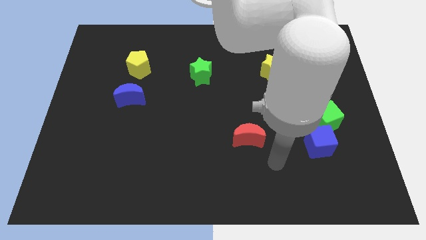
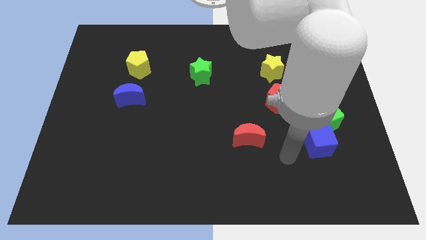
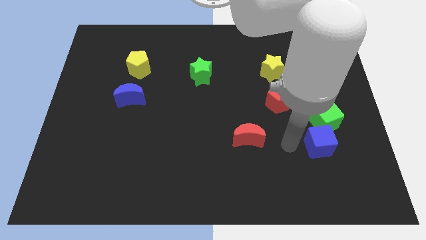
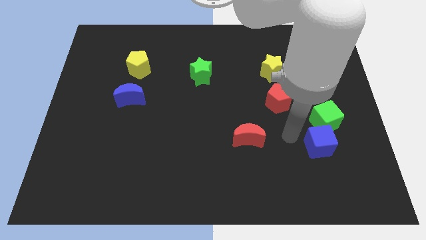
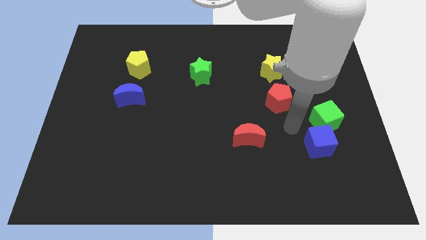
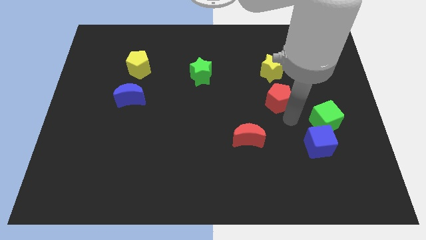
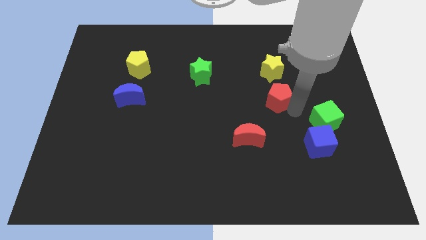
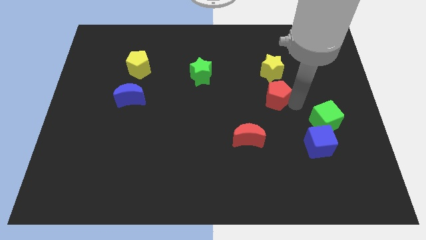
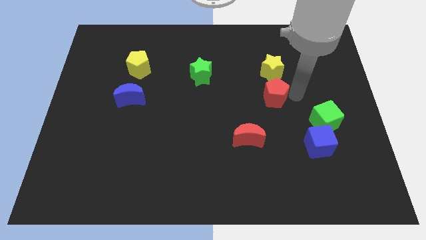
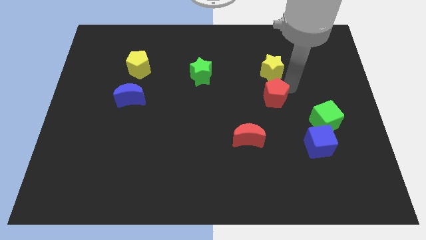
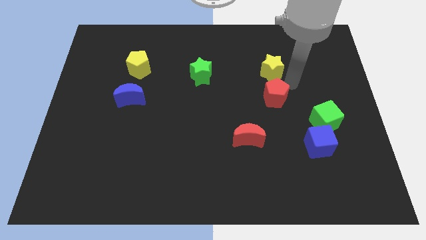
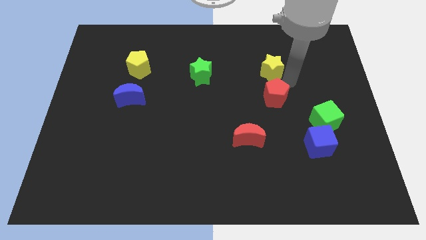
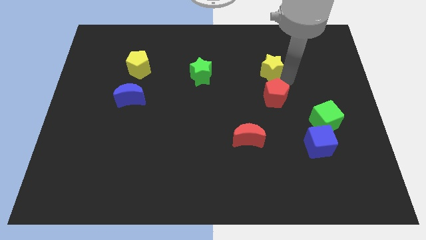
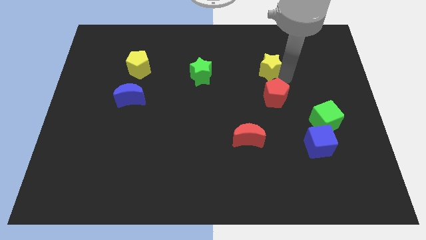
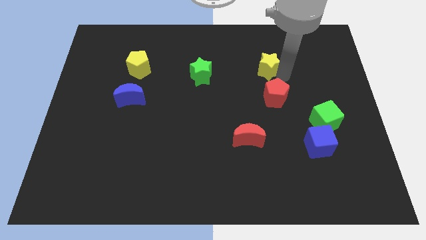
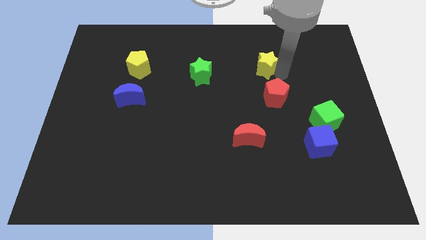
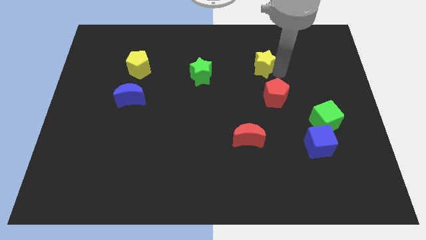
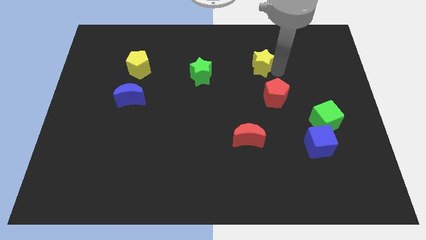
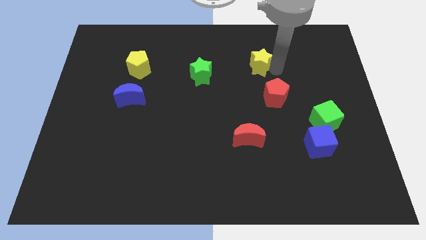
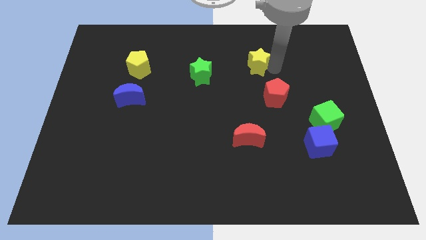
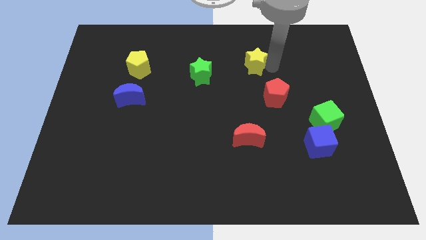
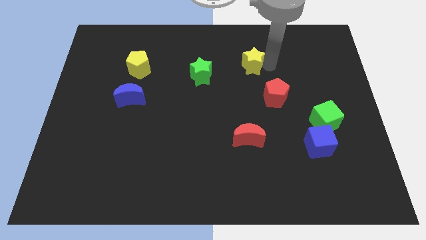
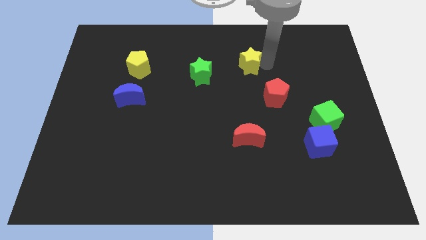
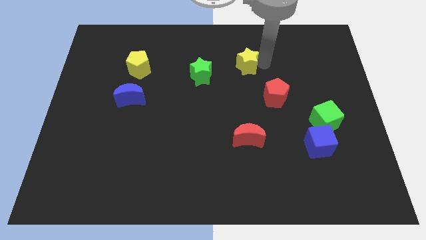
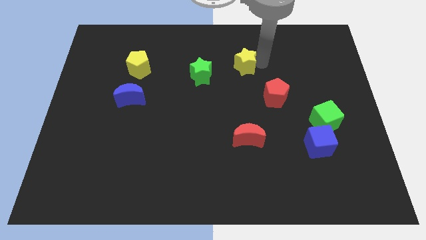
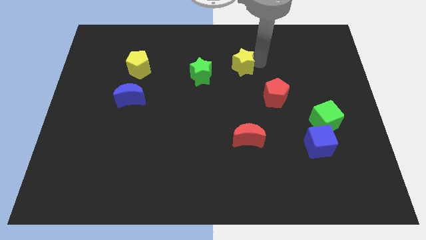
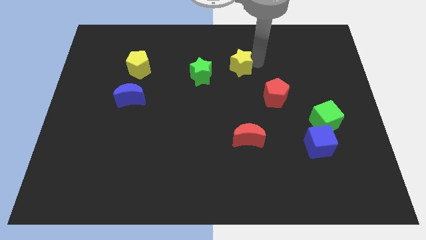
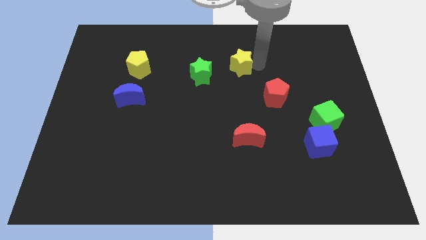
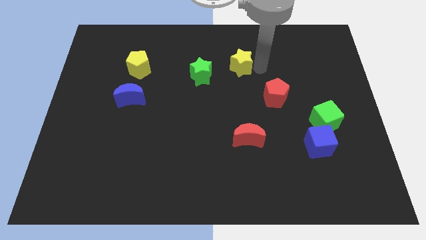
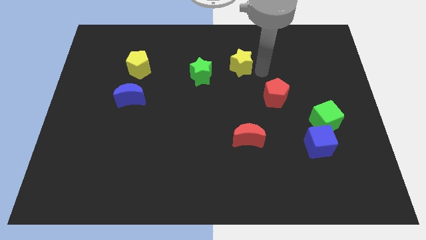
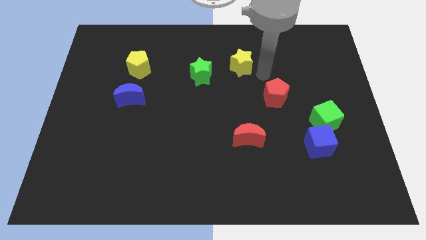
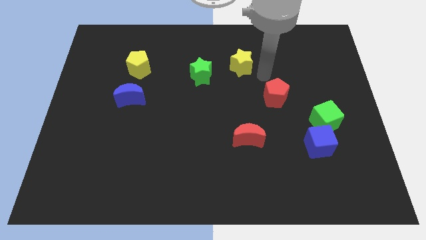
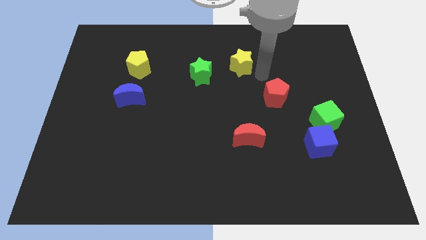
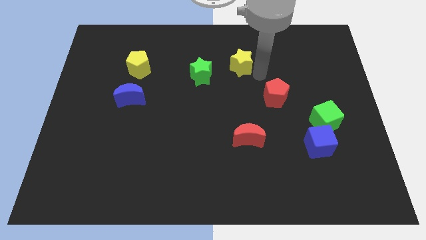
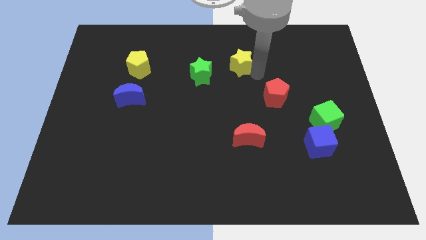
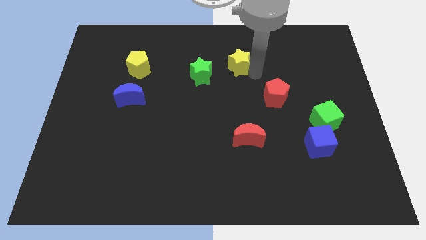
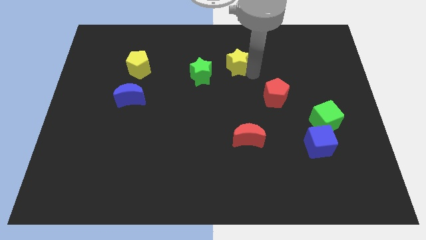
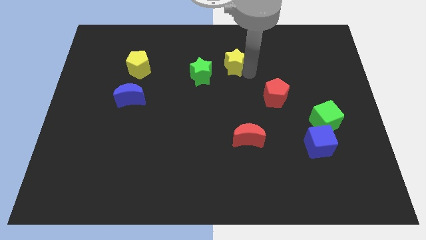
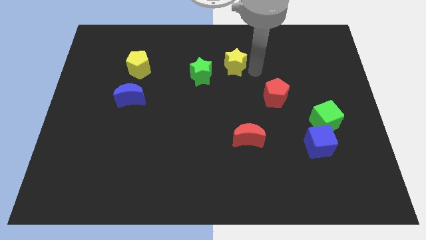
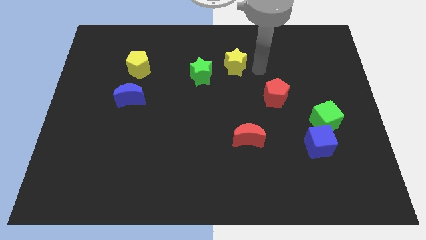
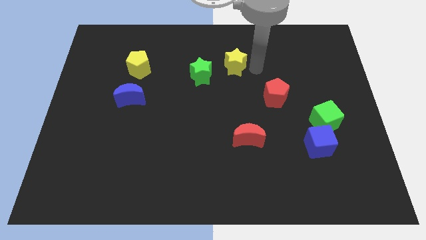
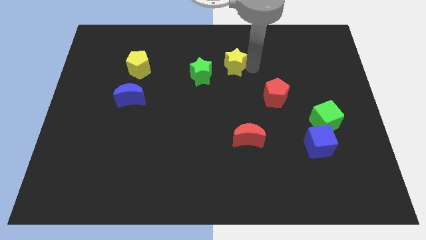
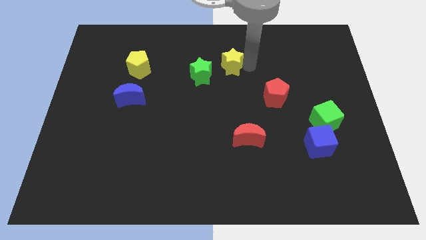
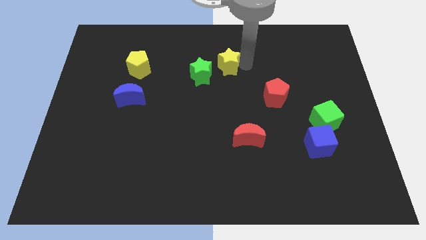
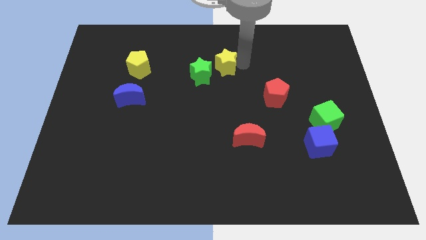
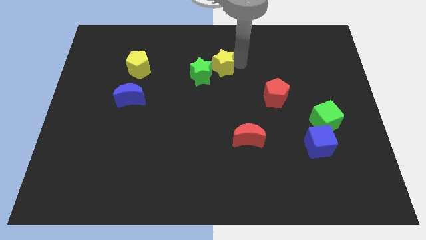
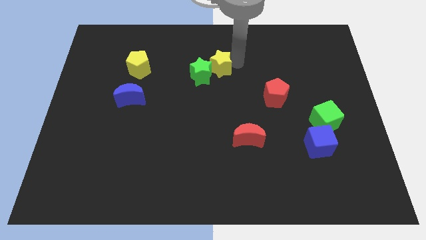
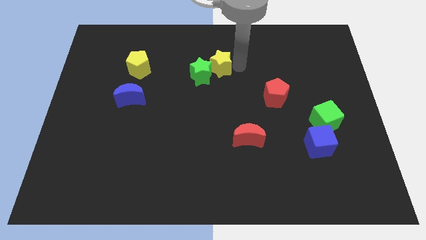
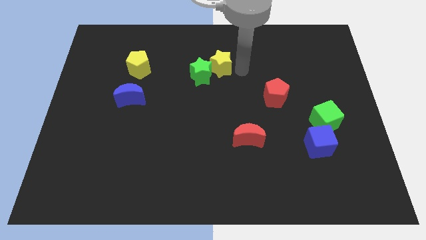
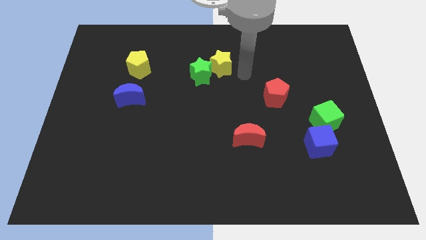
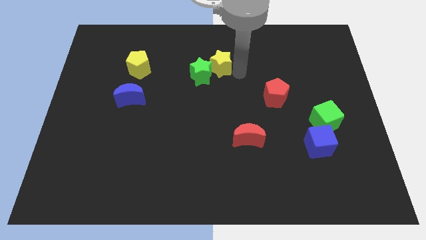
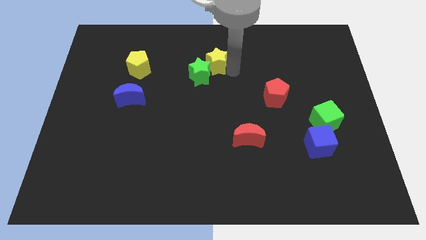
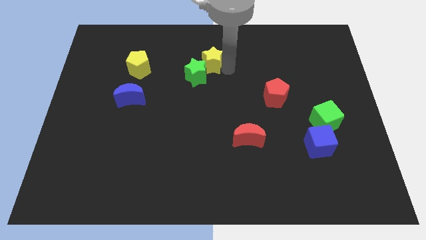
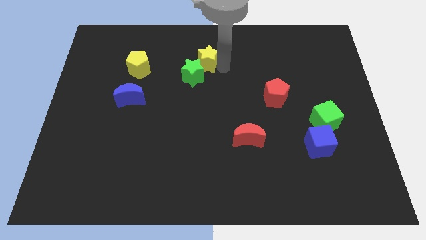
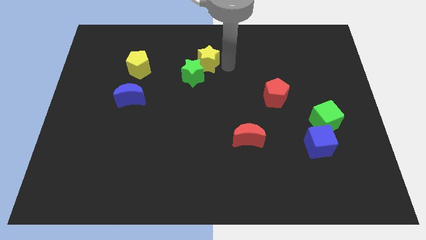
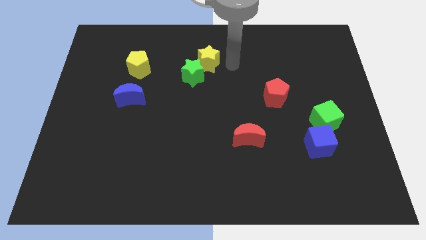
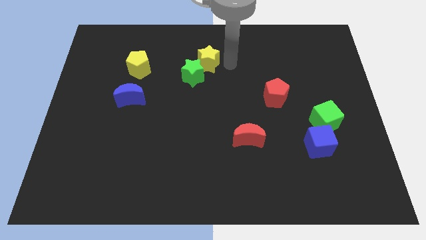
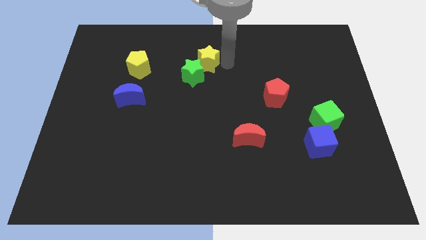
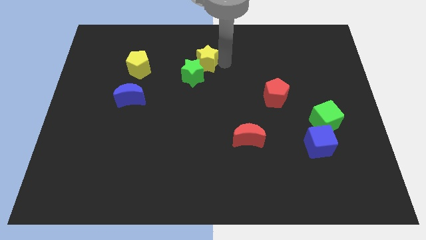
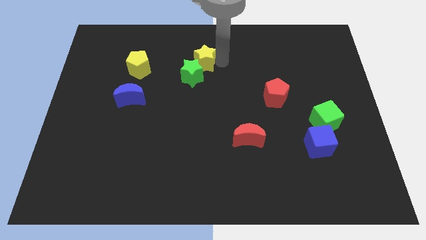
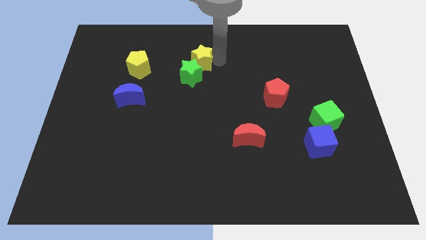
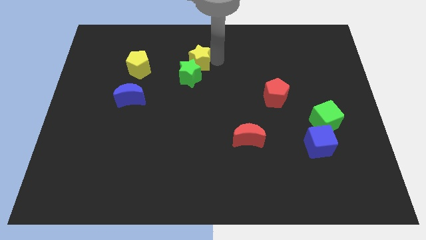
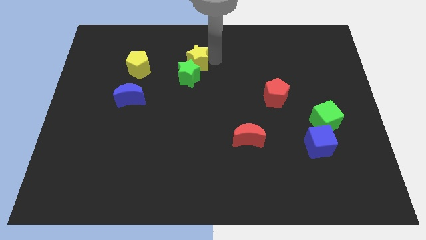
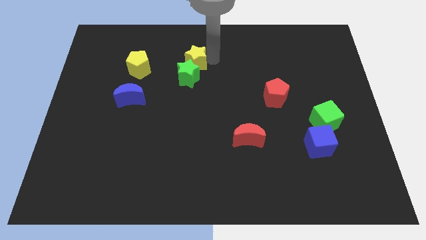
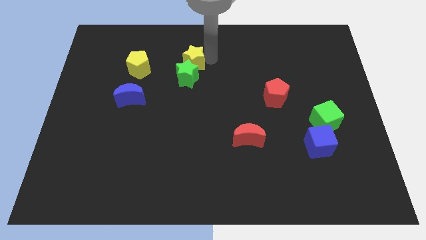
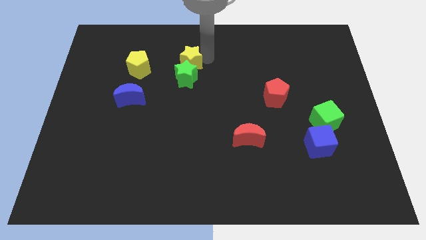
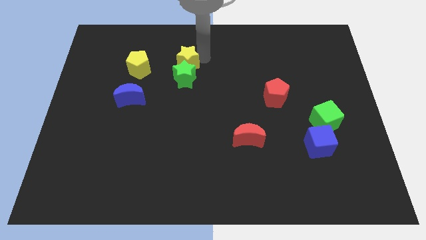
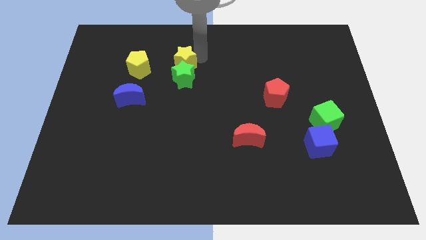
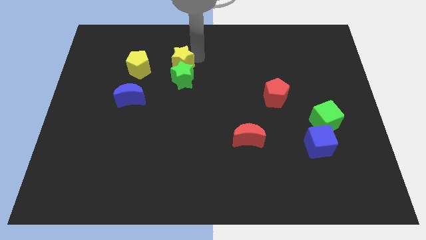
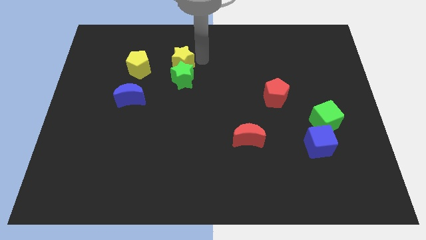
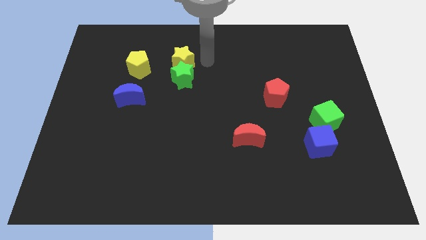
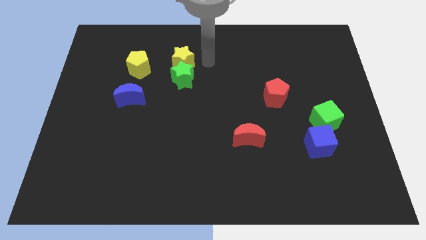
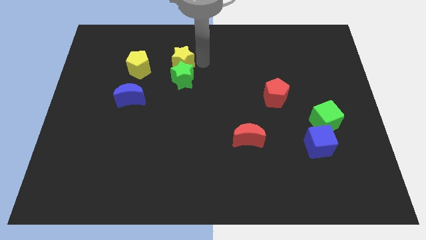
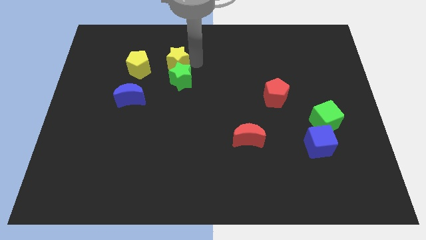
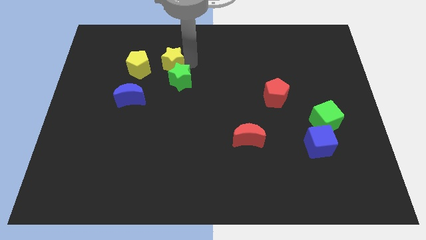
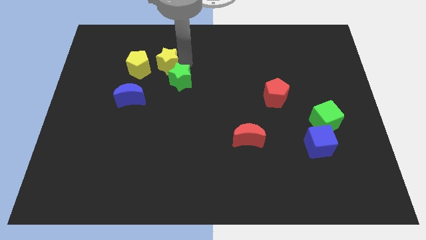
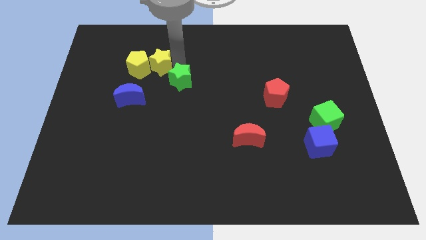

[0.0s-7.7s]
slide the yellow star to the yellow pentagon
